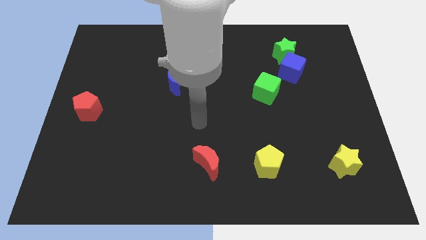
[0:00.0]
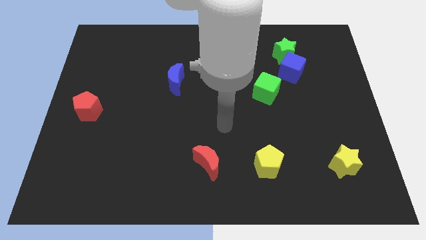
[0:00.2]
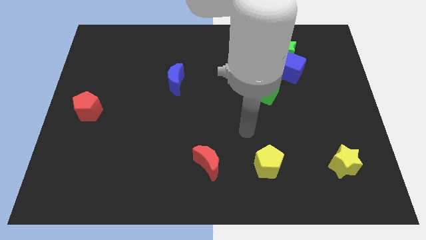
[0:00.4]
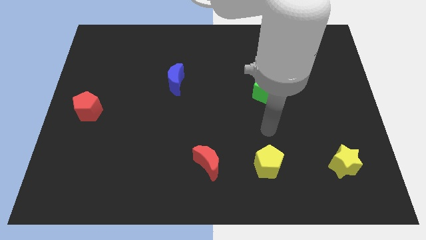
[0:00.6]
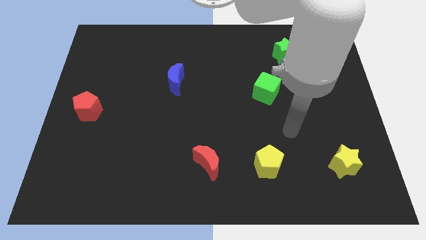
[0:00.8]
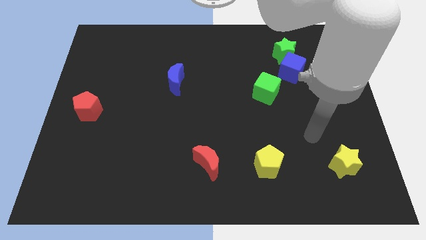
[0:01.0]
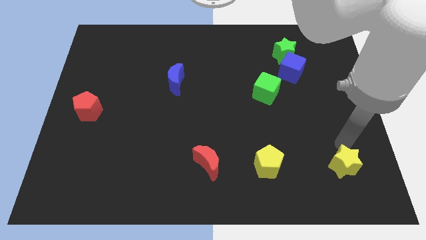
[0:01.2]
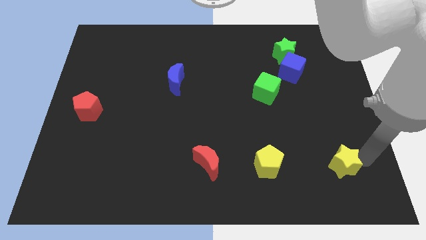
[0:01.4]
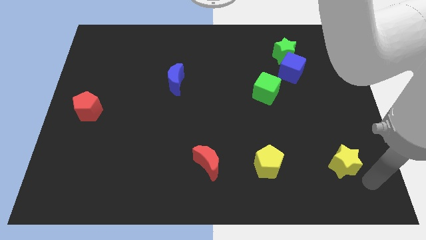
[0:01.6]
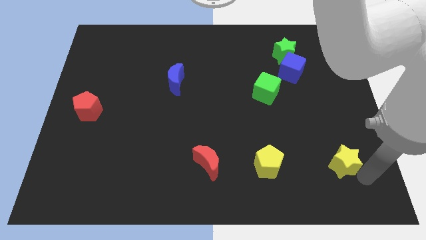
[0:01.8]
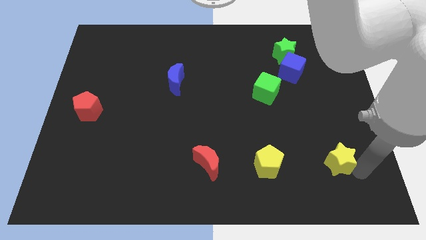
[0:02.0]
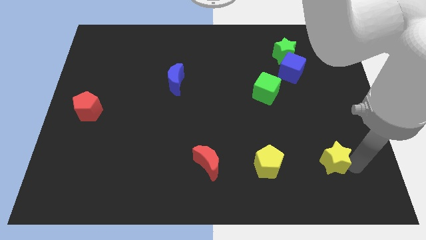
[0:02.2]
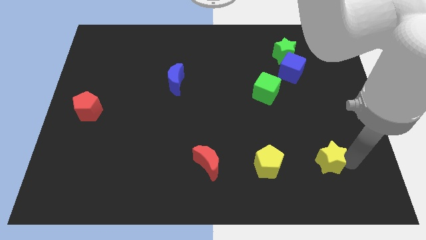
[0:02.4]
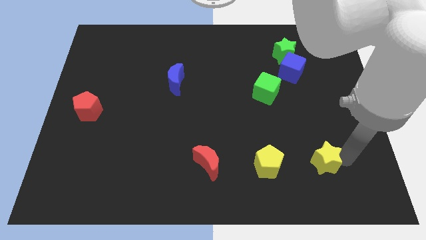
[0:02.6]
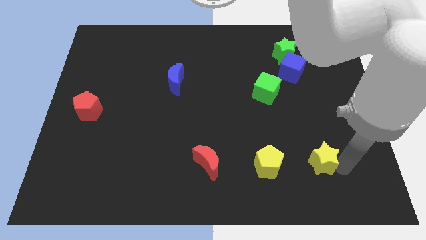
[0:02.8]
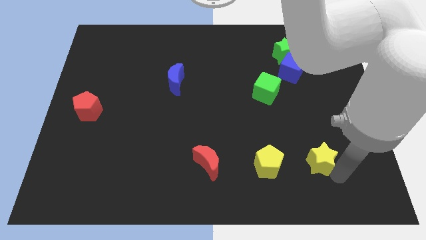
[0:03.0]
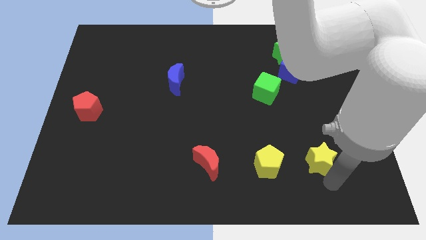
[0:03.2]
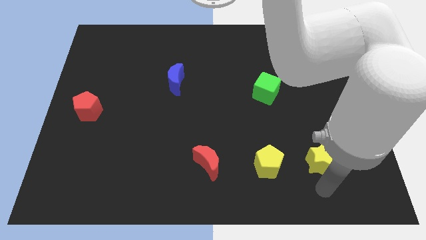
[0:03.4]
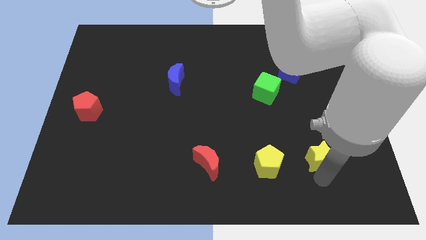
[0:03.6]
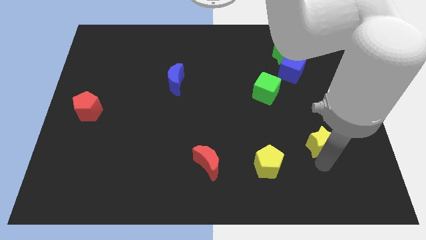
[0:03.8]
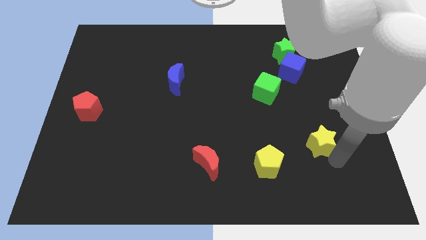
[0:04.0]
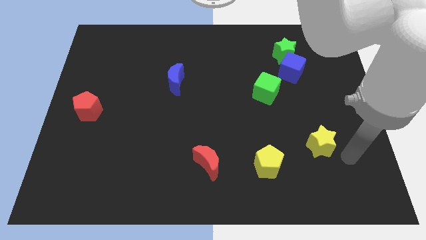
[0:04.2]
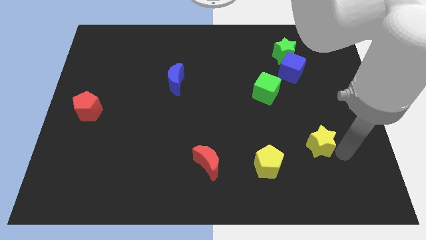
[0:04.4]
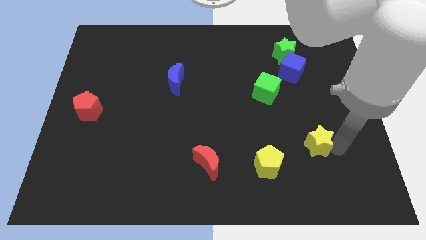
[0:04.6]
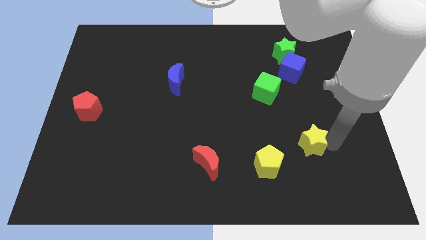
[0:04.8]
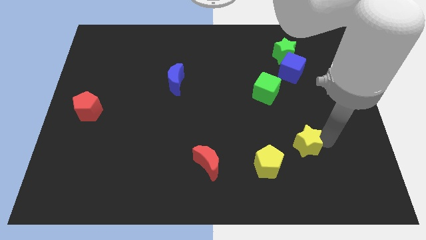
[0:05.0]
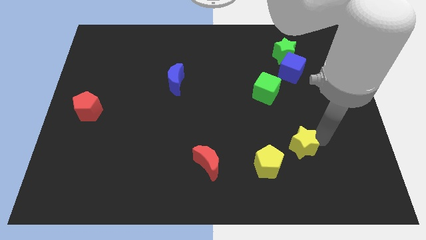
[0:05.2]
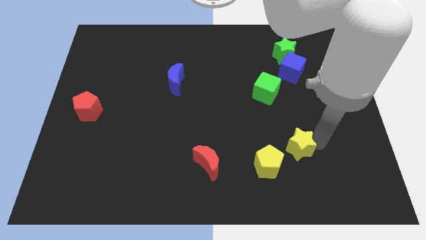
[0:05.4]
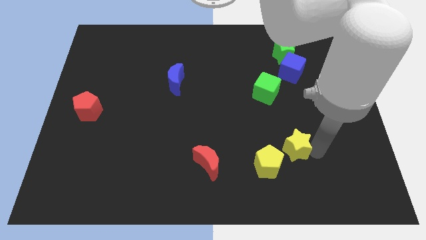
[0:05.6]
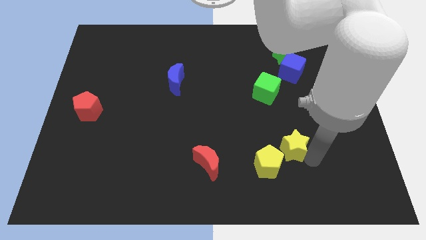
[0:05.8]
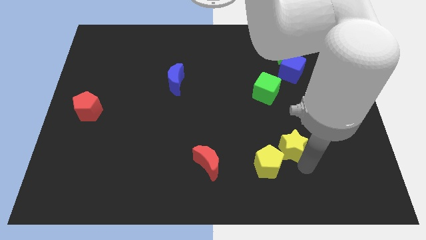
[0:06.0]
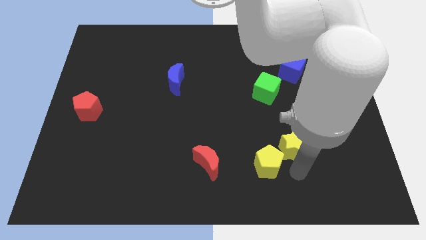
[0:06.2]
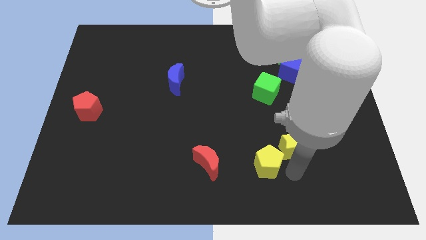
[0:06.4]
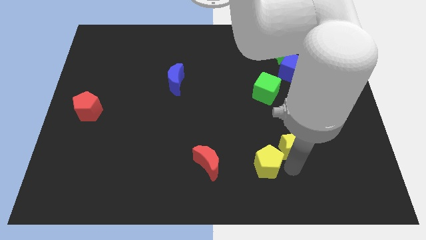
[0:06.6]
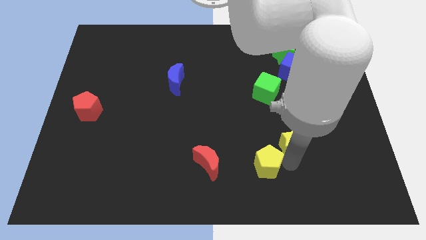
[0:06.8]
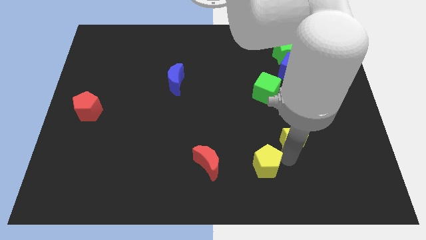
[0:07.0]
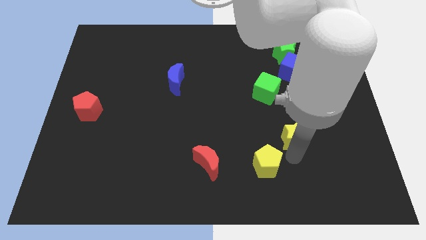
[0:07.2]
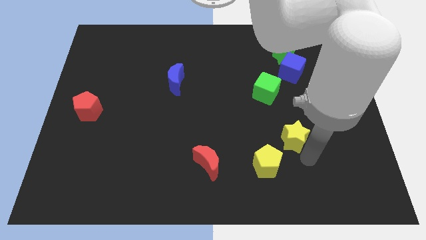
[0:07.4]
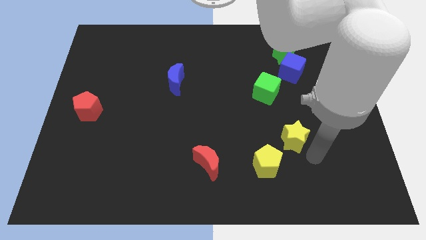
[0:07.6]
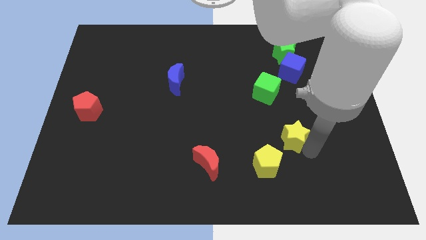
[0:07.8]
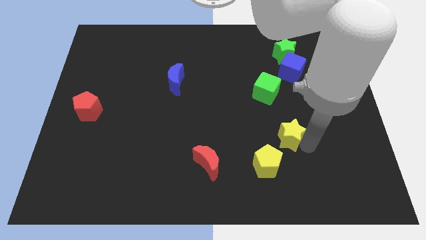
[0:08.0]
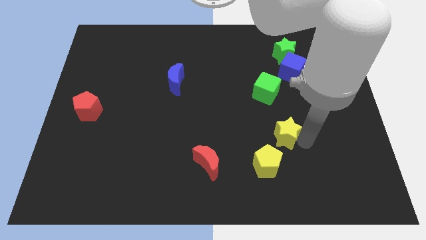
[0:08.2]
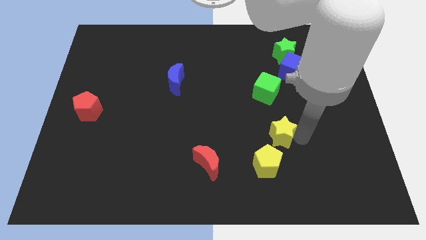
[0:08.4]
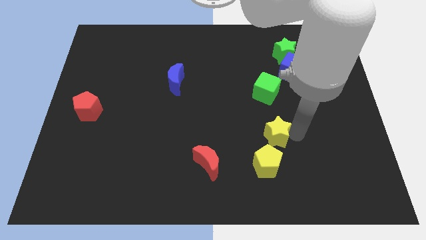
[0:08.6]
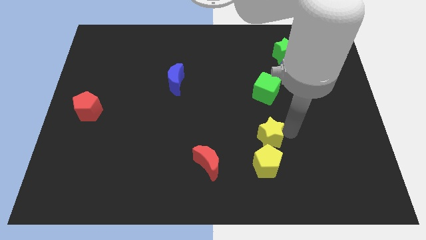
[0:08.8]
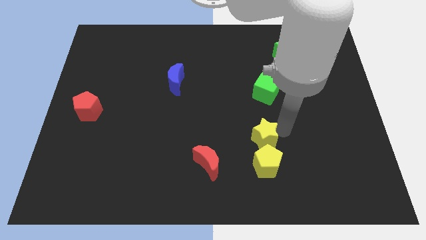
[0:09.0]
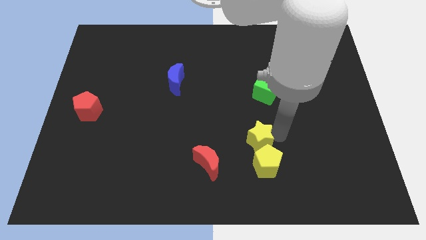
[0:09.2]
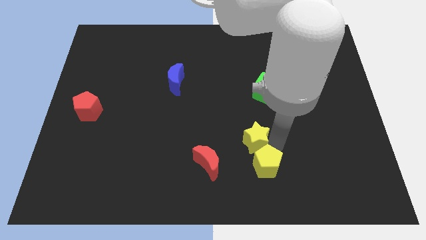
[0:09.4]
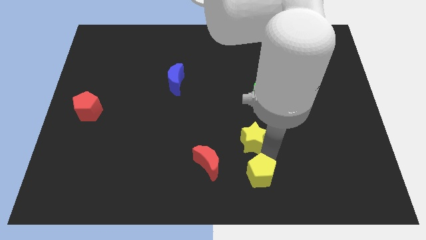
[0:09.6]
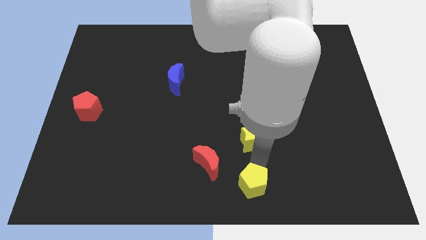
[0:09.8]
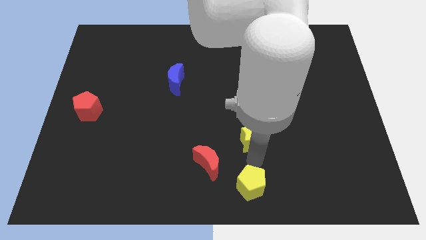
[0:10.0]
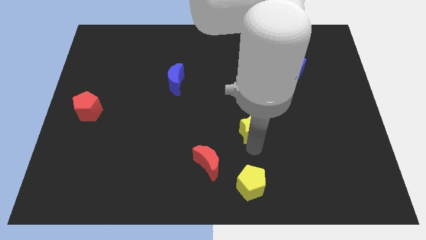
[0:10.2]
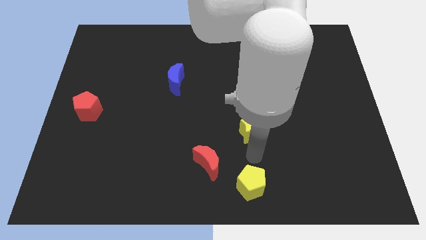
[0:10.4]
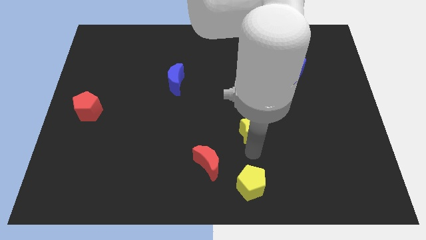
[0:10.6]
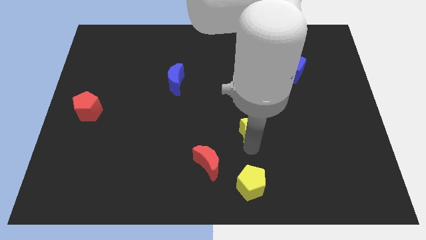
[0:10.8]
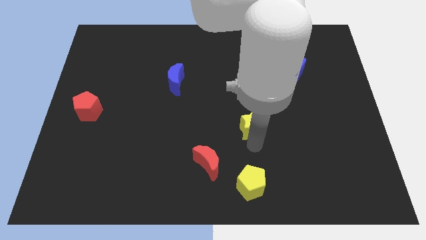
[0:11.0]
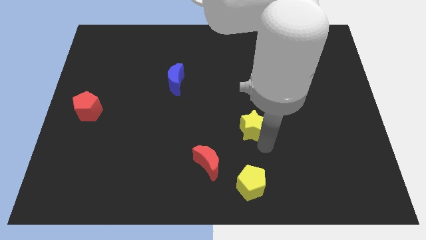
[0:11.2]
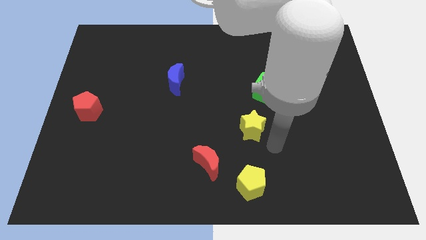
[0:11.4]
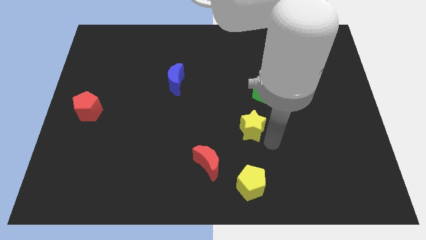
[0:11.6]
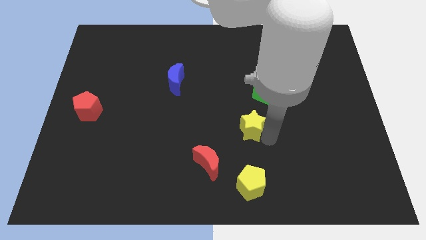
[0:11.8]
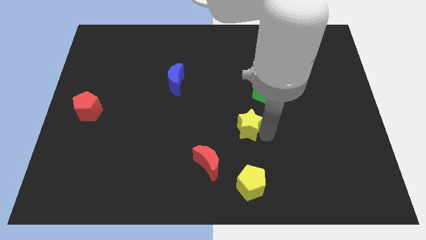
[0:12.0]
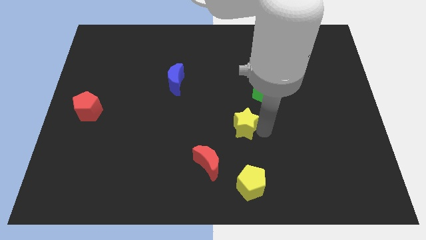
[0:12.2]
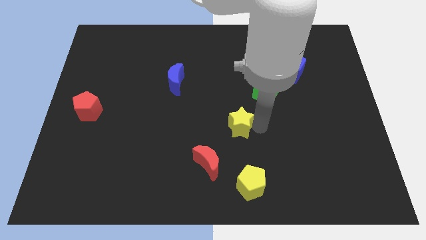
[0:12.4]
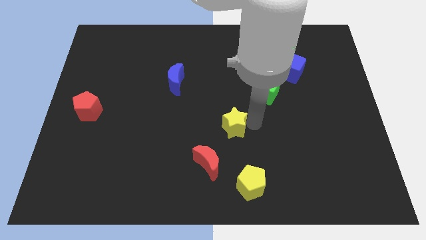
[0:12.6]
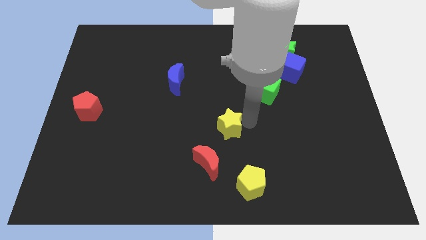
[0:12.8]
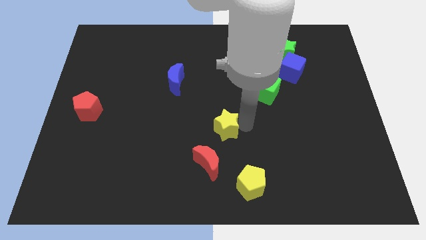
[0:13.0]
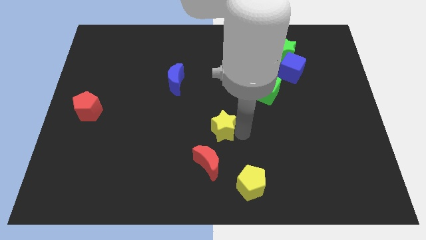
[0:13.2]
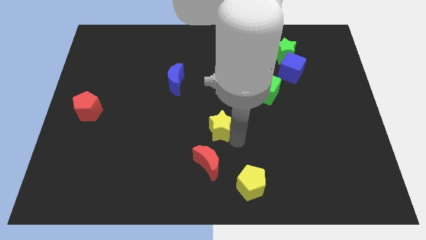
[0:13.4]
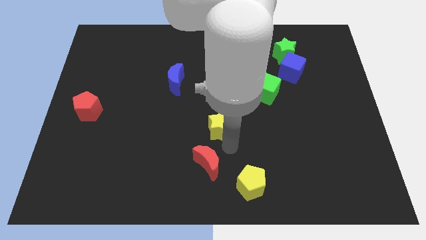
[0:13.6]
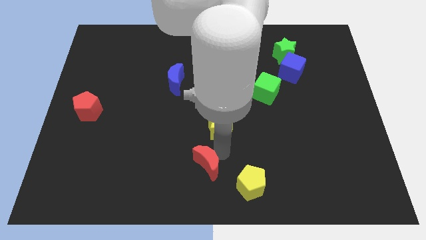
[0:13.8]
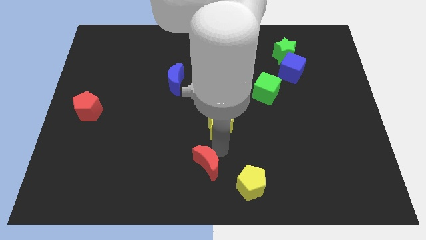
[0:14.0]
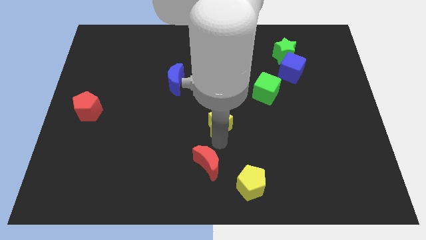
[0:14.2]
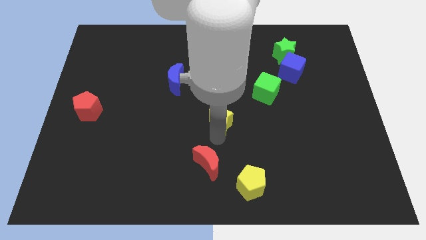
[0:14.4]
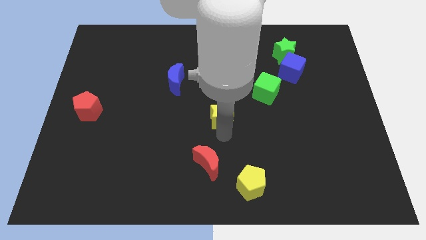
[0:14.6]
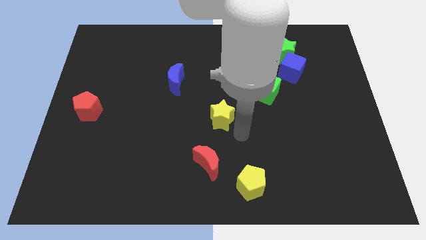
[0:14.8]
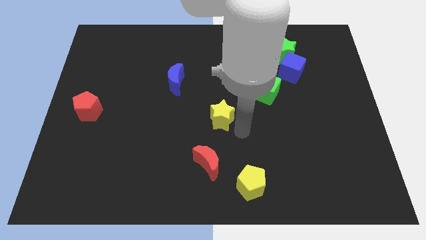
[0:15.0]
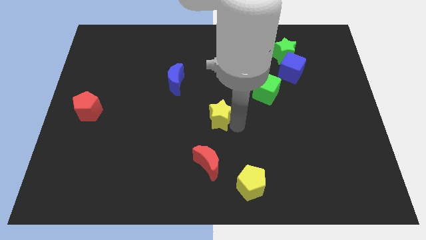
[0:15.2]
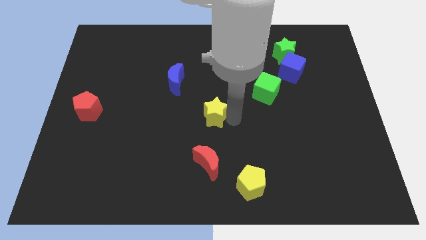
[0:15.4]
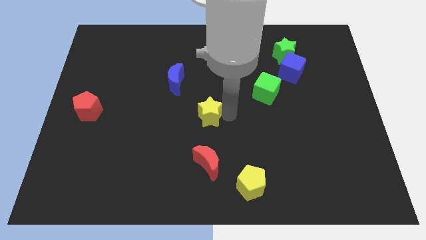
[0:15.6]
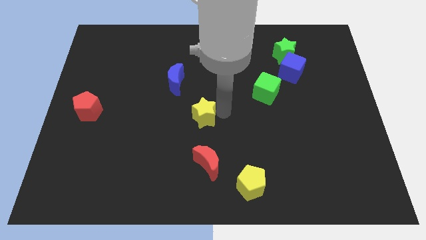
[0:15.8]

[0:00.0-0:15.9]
move the yellow star to the bottom right of the blue moon
